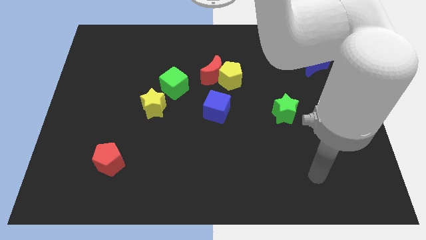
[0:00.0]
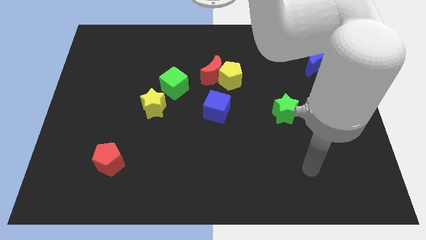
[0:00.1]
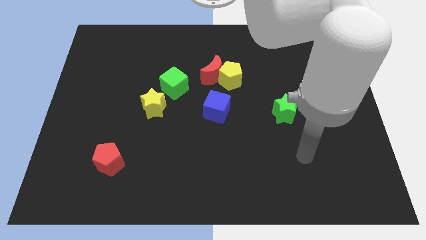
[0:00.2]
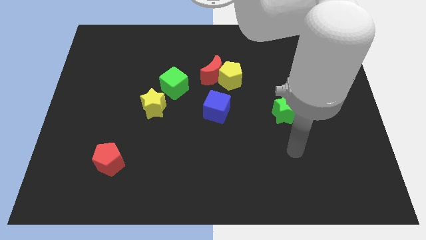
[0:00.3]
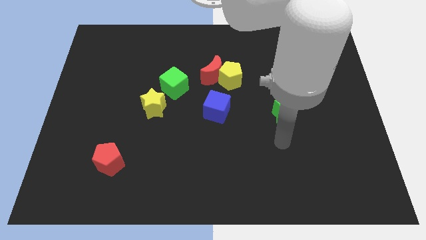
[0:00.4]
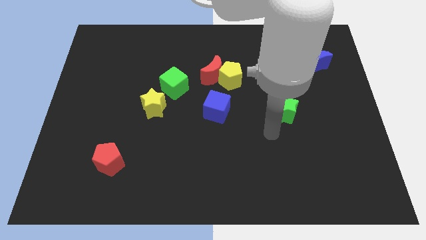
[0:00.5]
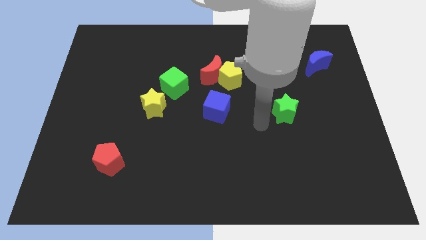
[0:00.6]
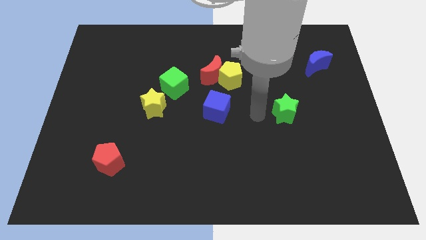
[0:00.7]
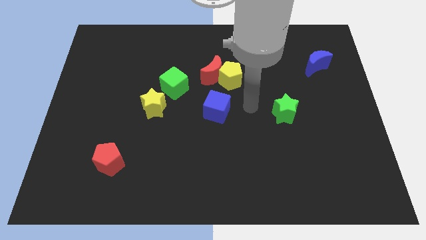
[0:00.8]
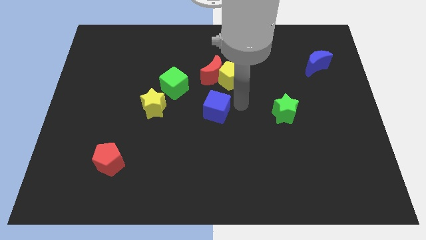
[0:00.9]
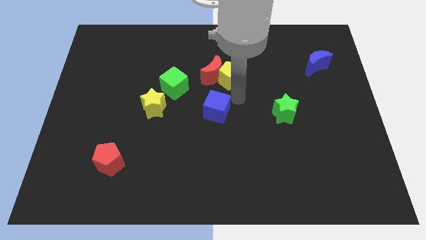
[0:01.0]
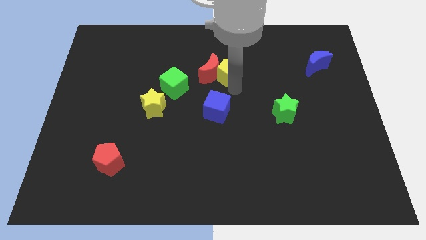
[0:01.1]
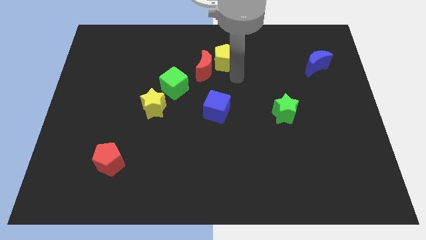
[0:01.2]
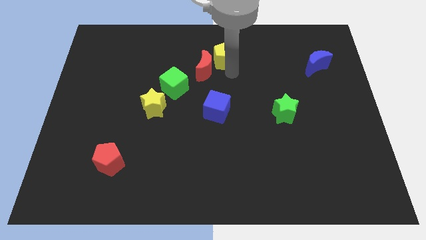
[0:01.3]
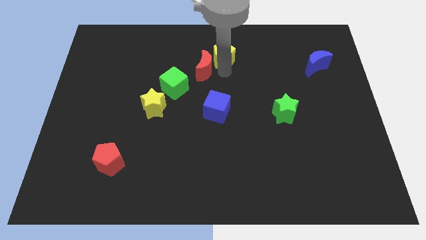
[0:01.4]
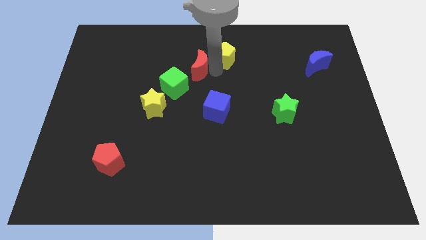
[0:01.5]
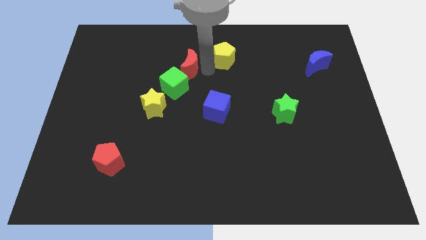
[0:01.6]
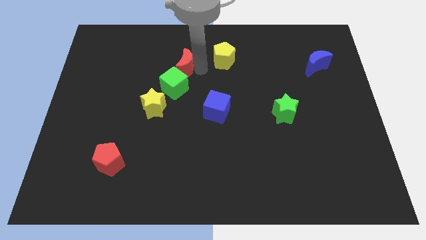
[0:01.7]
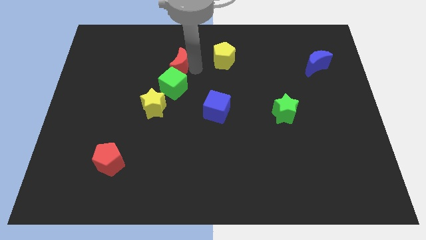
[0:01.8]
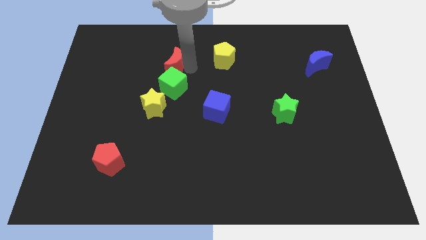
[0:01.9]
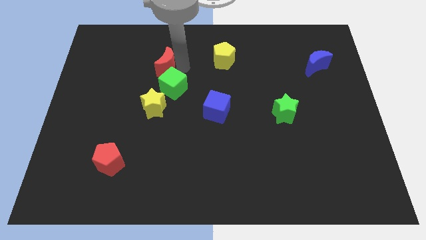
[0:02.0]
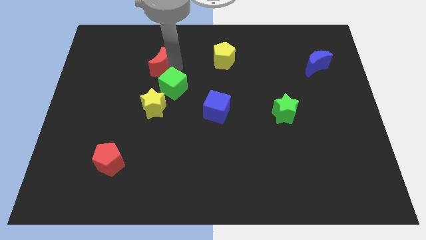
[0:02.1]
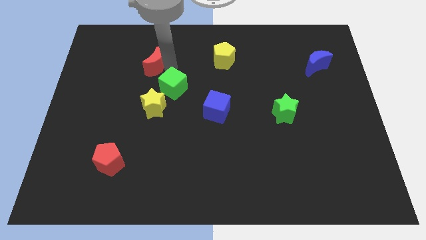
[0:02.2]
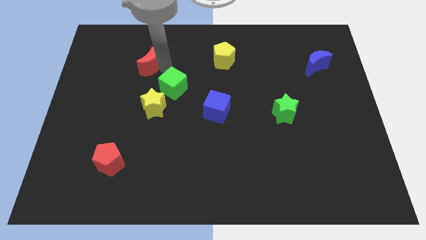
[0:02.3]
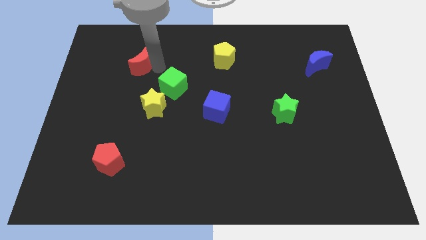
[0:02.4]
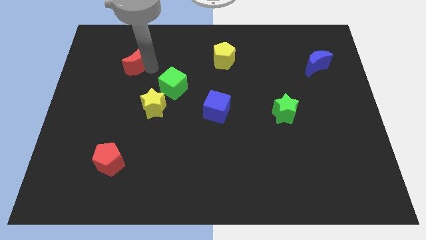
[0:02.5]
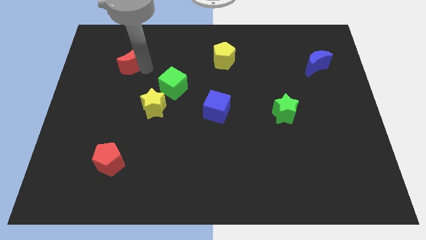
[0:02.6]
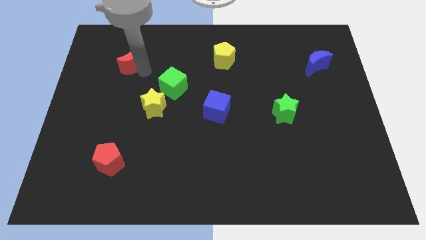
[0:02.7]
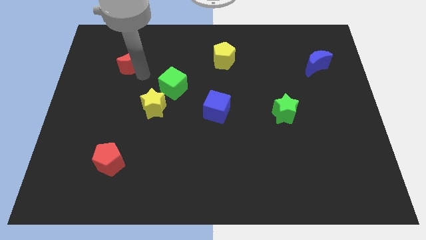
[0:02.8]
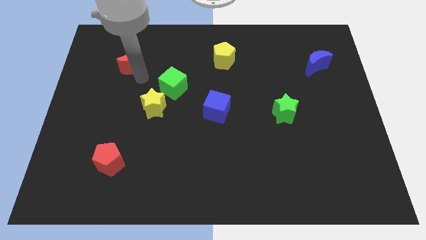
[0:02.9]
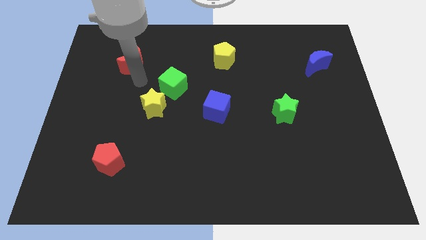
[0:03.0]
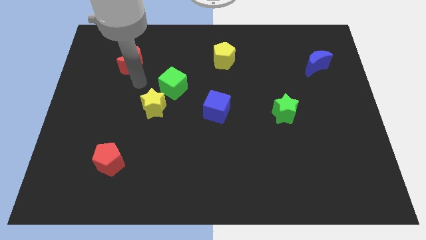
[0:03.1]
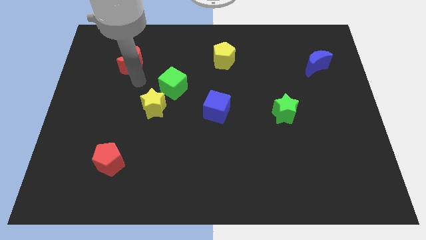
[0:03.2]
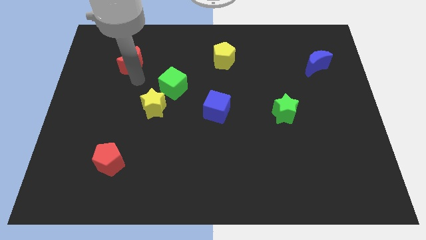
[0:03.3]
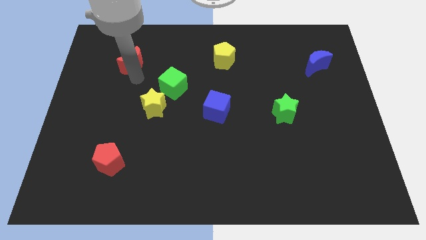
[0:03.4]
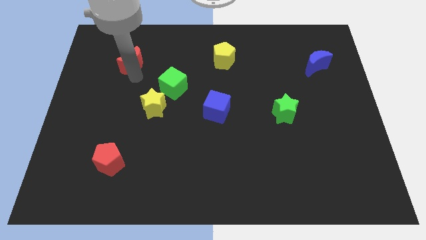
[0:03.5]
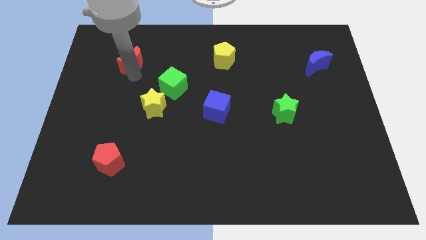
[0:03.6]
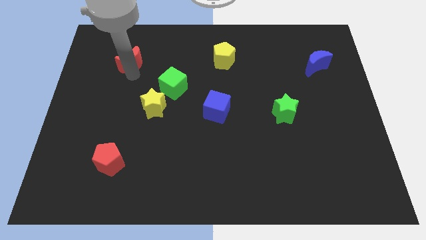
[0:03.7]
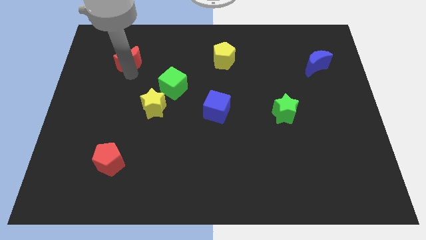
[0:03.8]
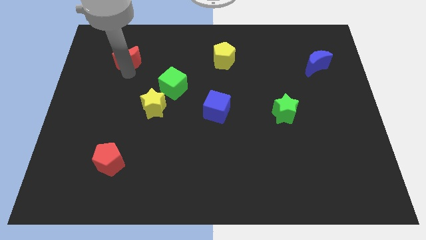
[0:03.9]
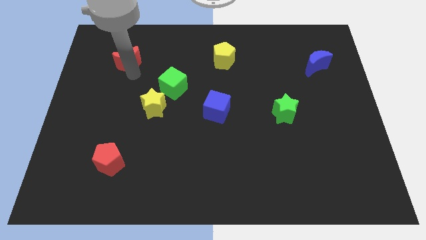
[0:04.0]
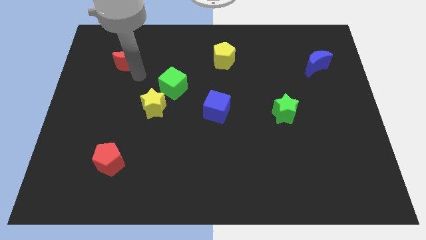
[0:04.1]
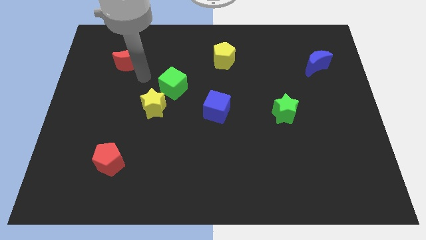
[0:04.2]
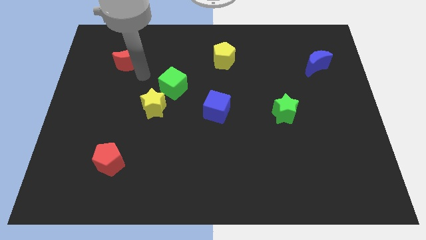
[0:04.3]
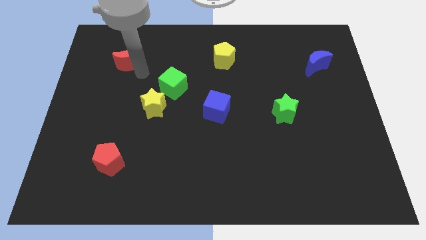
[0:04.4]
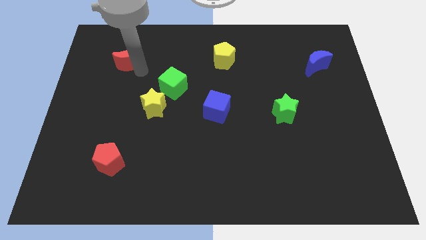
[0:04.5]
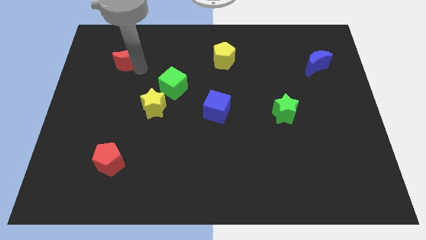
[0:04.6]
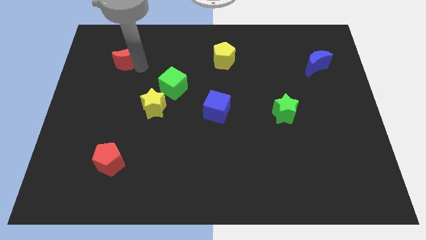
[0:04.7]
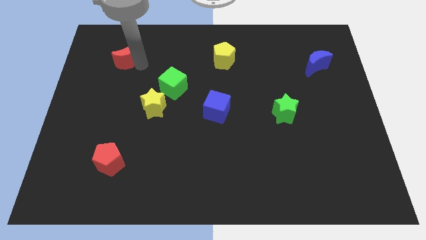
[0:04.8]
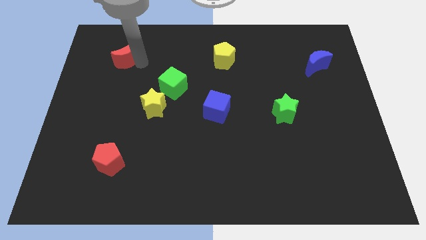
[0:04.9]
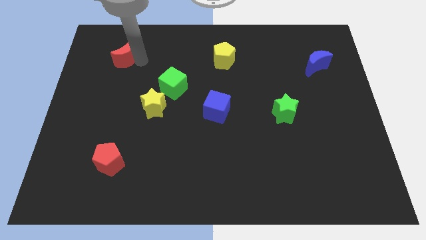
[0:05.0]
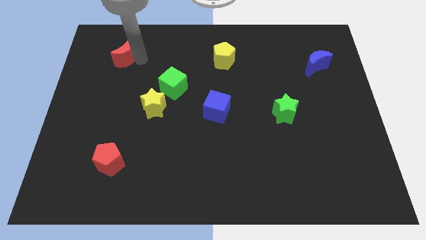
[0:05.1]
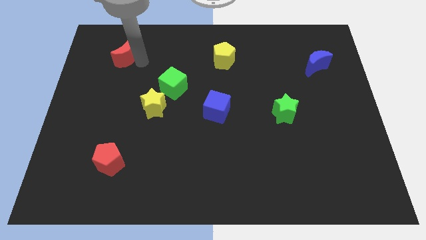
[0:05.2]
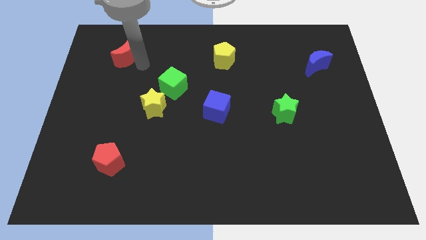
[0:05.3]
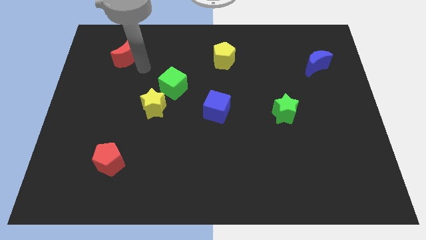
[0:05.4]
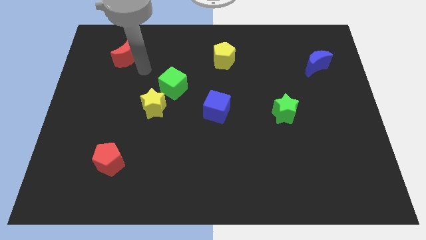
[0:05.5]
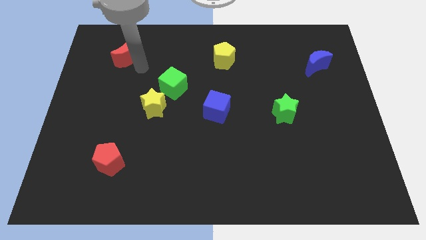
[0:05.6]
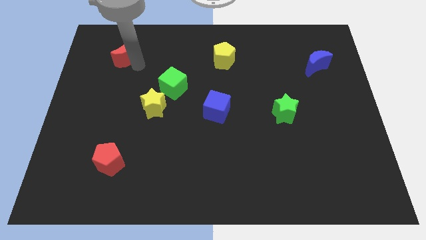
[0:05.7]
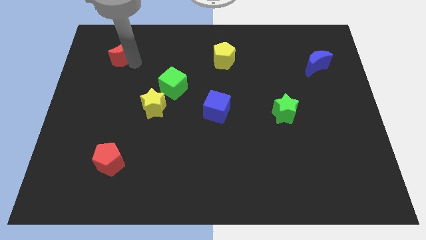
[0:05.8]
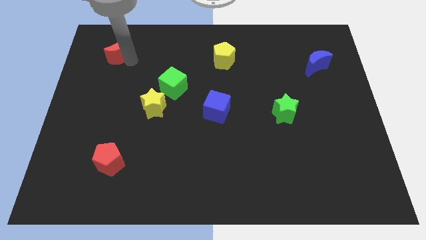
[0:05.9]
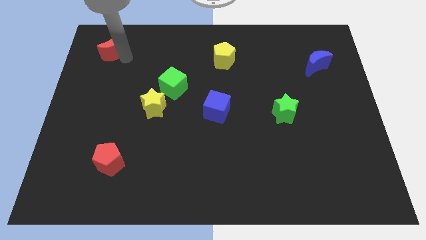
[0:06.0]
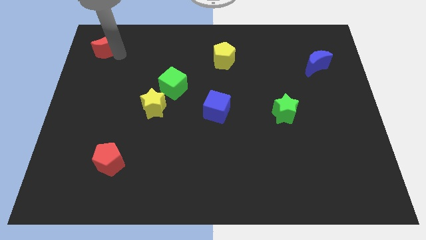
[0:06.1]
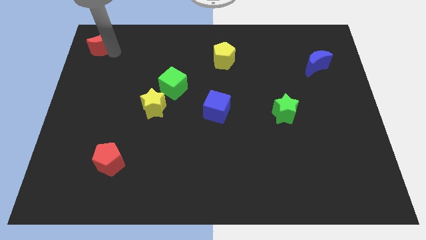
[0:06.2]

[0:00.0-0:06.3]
put the red moon to the upper left corner
